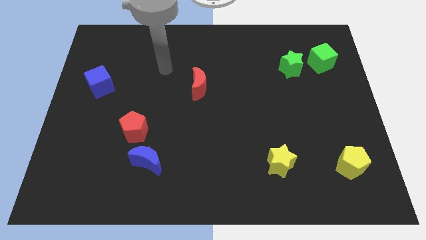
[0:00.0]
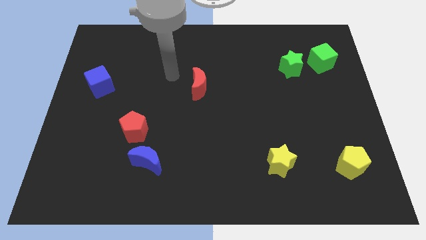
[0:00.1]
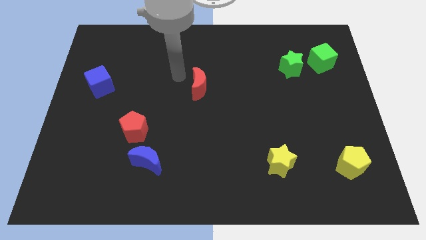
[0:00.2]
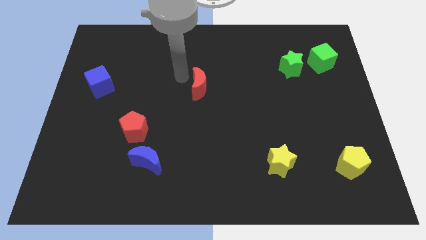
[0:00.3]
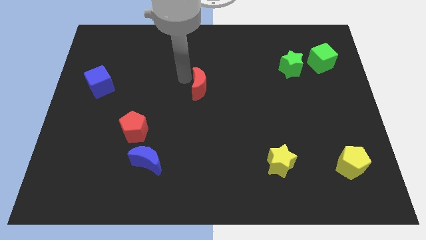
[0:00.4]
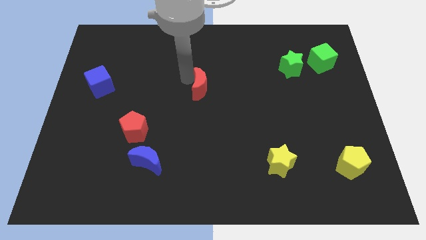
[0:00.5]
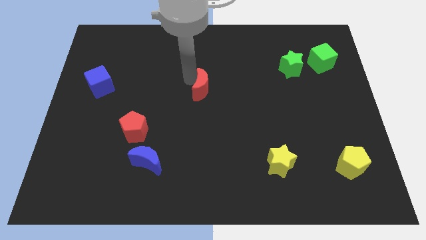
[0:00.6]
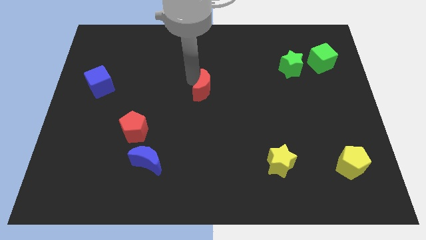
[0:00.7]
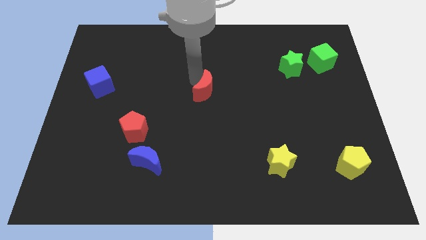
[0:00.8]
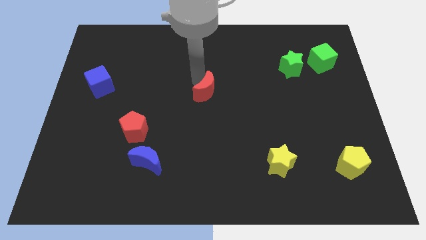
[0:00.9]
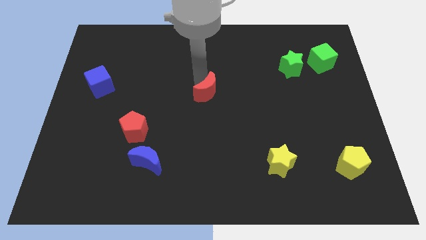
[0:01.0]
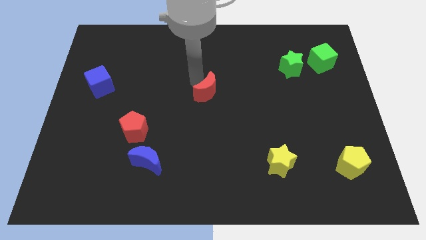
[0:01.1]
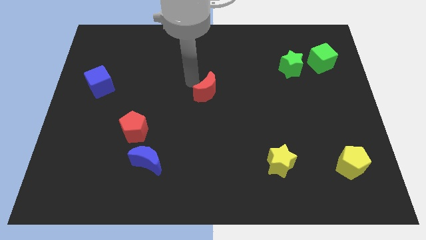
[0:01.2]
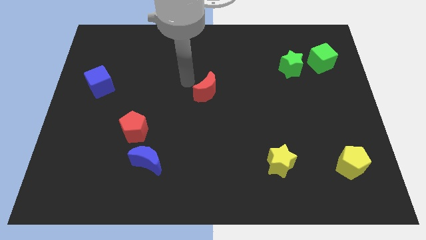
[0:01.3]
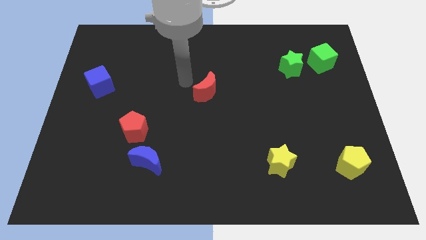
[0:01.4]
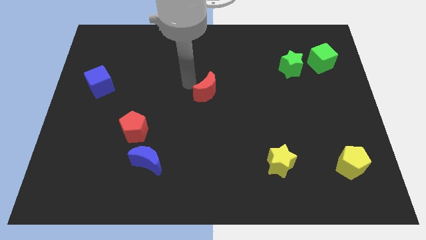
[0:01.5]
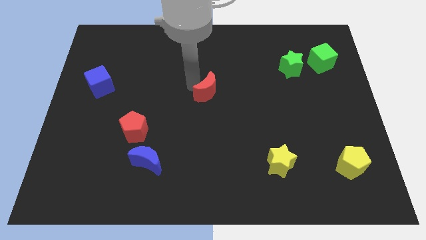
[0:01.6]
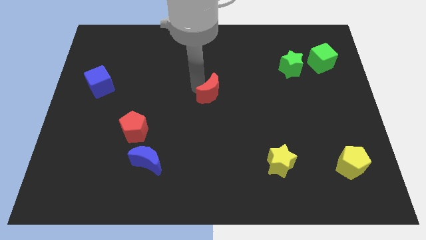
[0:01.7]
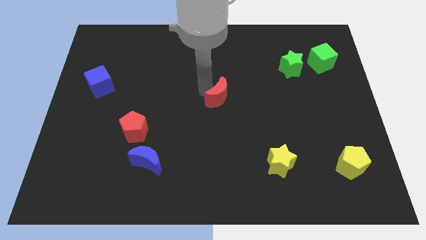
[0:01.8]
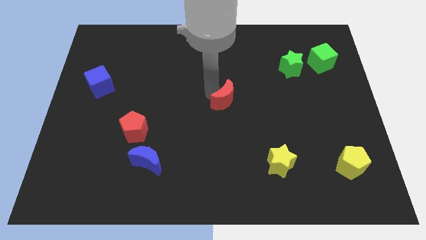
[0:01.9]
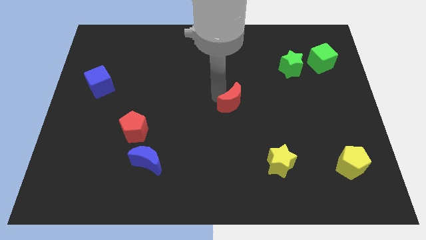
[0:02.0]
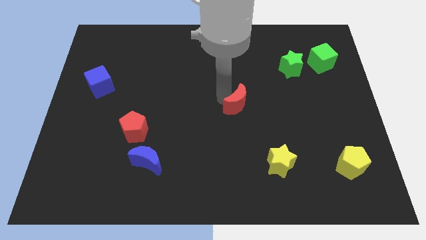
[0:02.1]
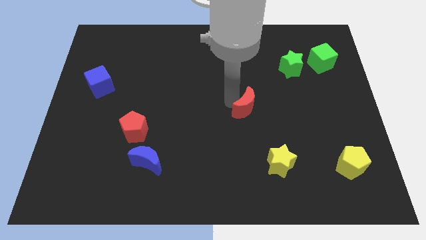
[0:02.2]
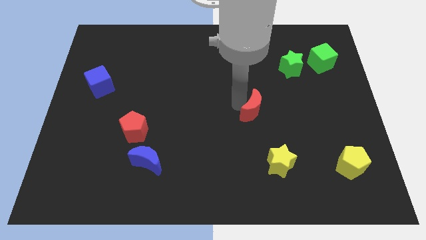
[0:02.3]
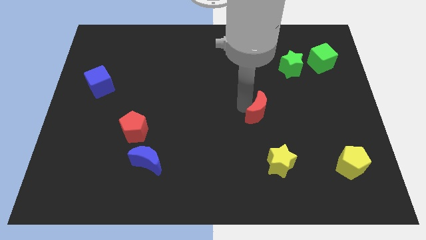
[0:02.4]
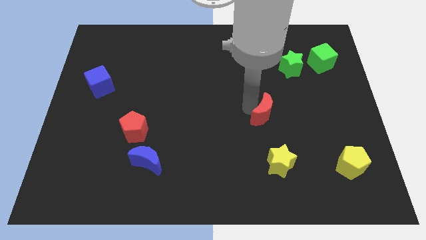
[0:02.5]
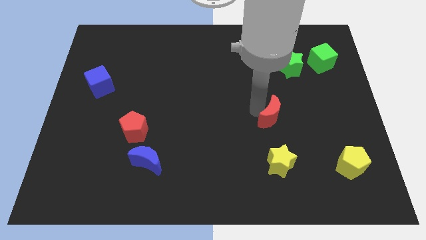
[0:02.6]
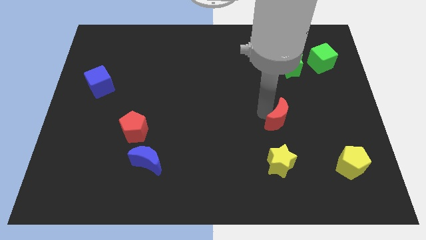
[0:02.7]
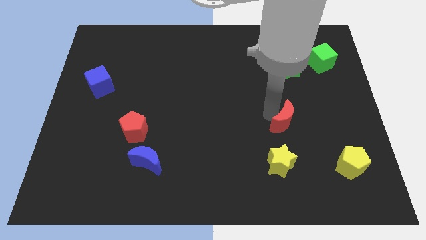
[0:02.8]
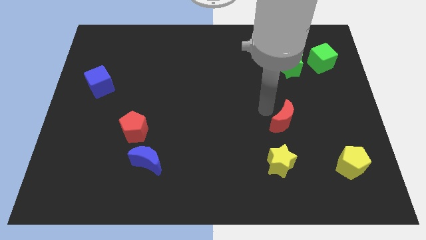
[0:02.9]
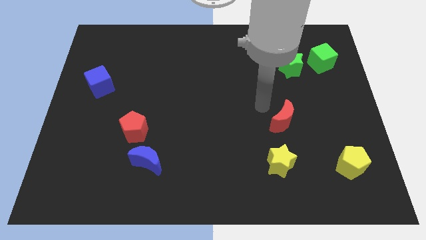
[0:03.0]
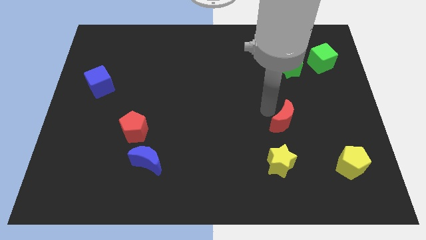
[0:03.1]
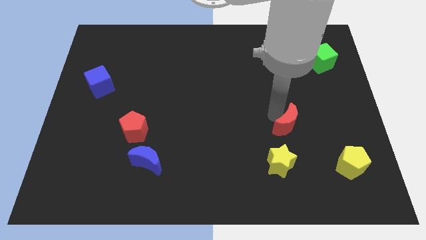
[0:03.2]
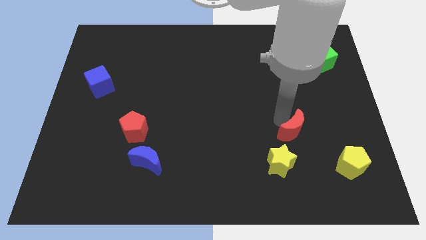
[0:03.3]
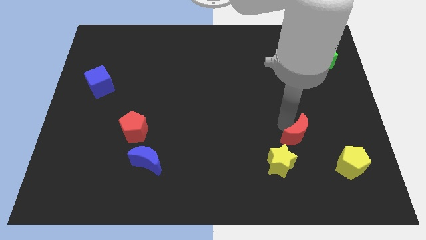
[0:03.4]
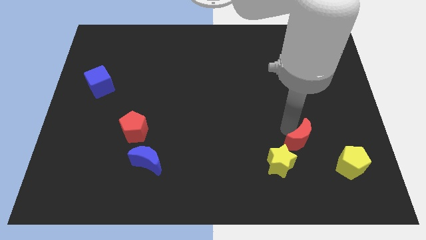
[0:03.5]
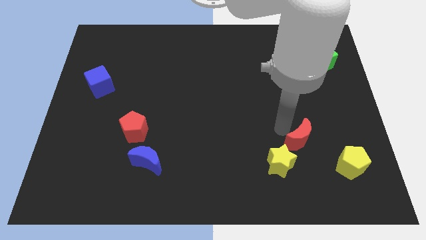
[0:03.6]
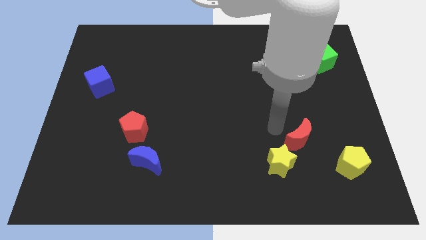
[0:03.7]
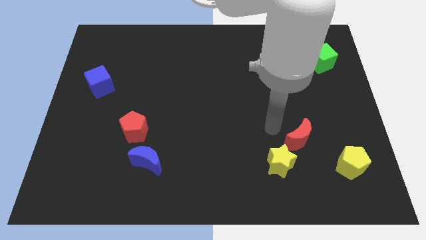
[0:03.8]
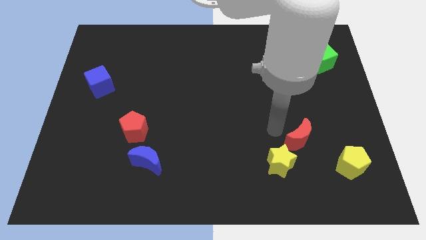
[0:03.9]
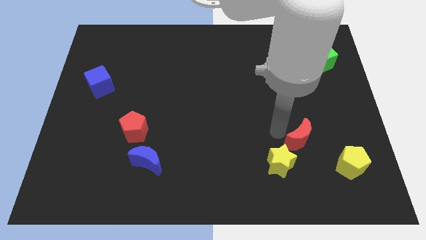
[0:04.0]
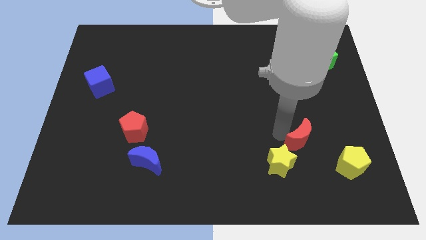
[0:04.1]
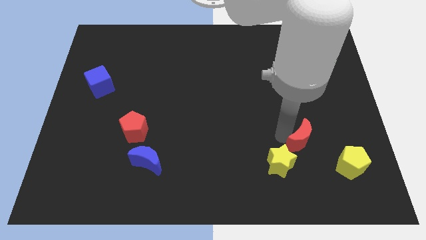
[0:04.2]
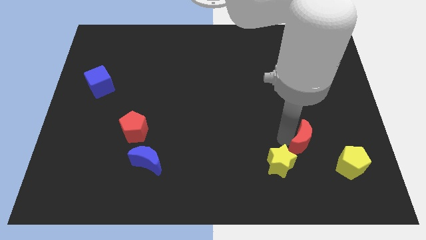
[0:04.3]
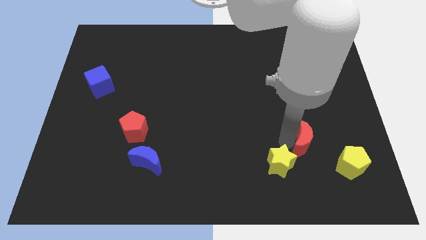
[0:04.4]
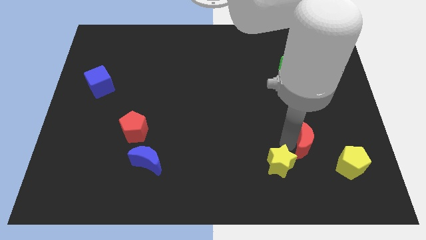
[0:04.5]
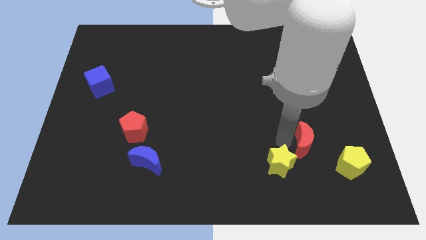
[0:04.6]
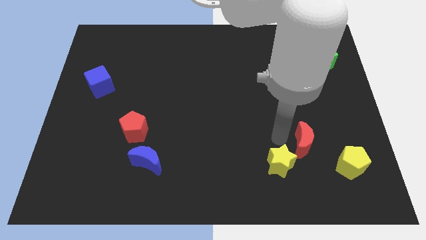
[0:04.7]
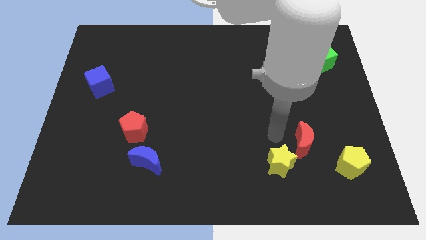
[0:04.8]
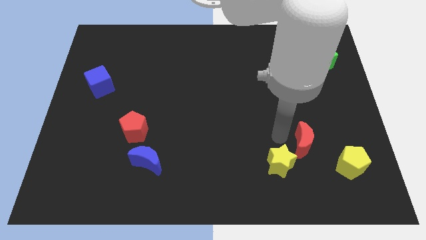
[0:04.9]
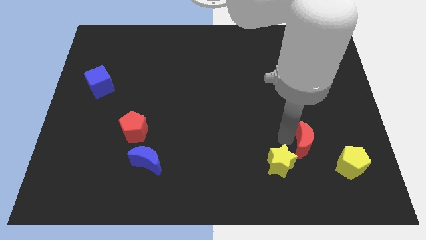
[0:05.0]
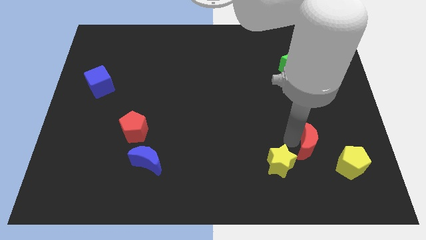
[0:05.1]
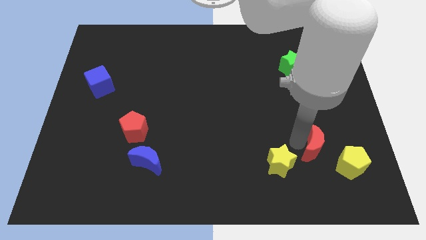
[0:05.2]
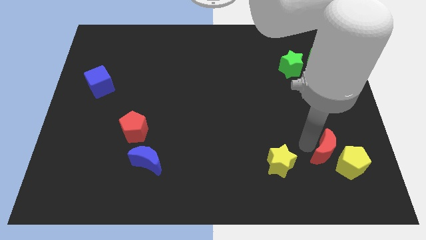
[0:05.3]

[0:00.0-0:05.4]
move the red moon to the yellow pentagon

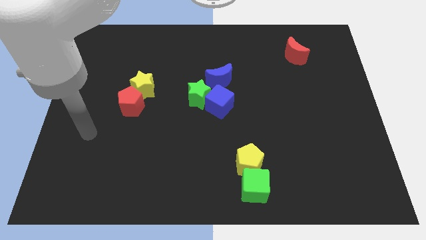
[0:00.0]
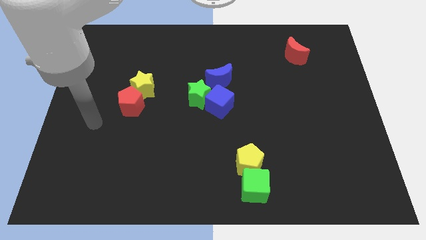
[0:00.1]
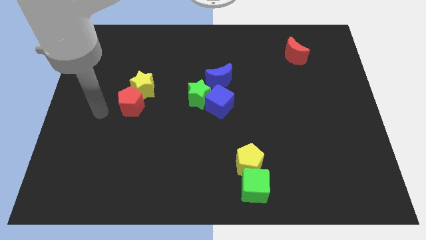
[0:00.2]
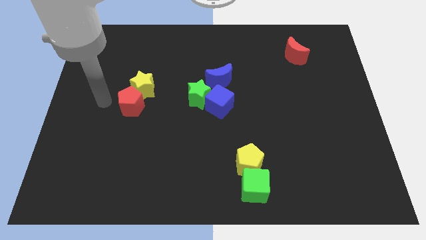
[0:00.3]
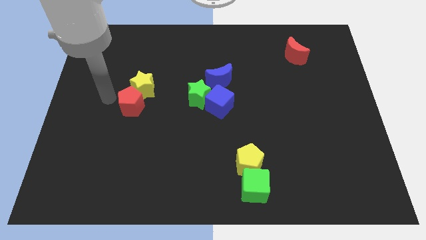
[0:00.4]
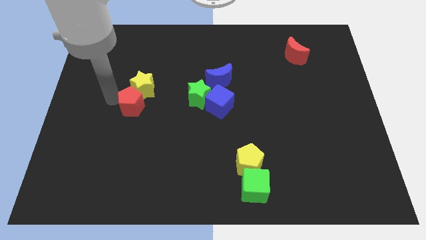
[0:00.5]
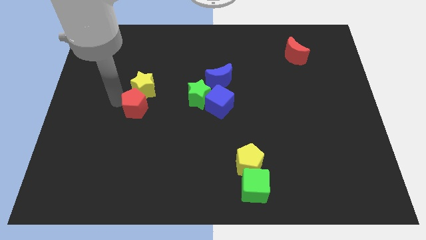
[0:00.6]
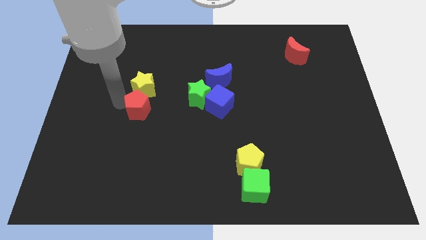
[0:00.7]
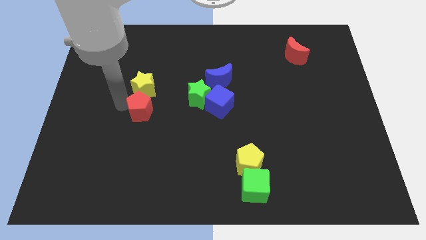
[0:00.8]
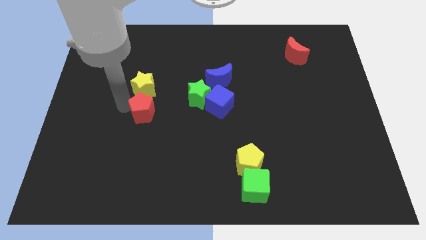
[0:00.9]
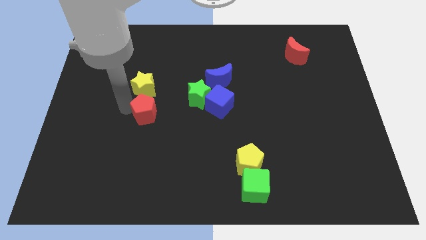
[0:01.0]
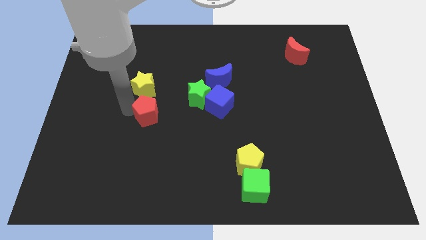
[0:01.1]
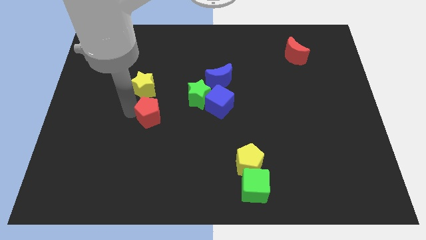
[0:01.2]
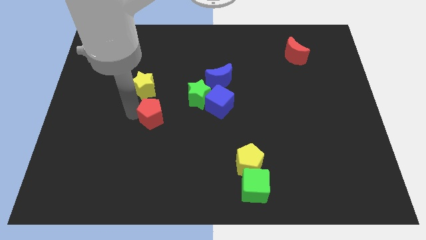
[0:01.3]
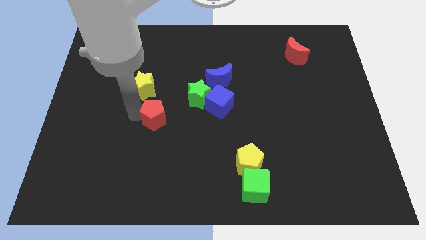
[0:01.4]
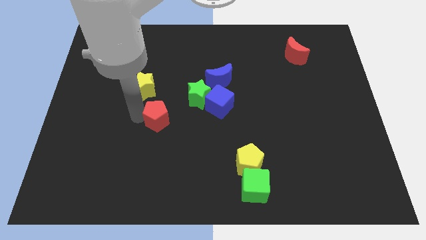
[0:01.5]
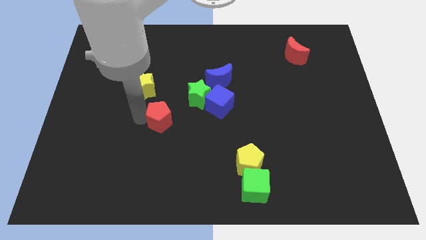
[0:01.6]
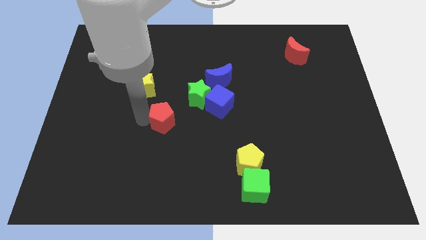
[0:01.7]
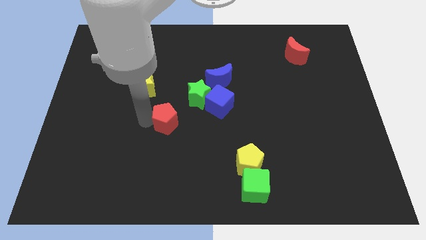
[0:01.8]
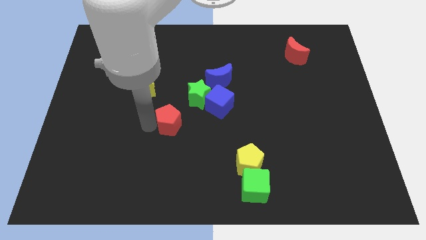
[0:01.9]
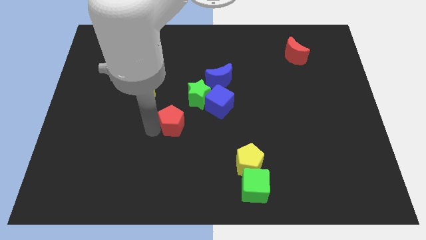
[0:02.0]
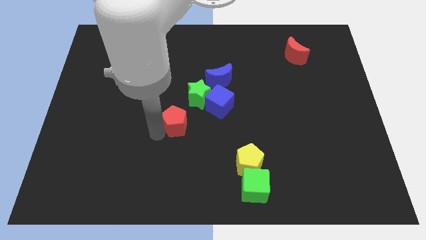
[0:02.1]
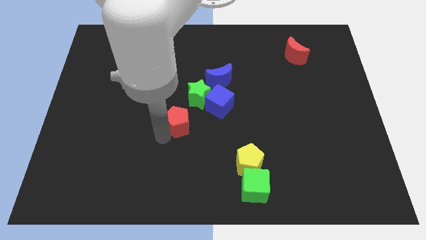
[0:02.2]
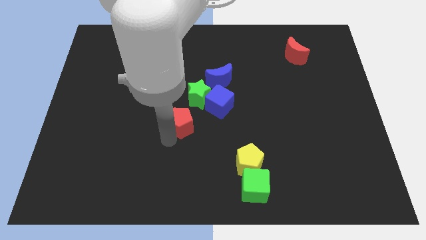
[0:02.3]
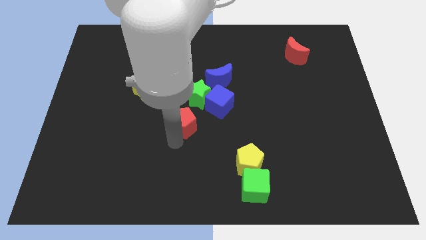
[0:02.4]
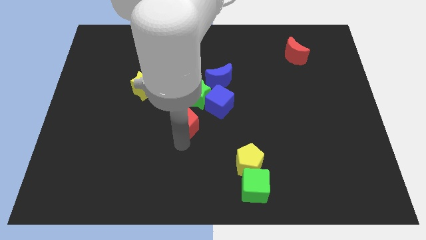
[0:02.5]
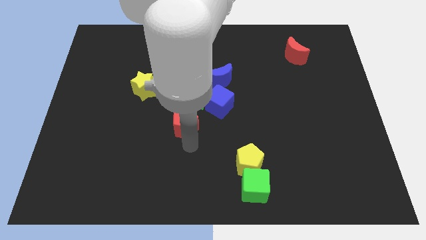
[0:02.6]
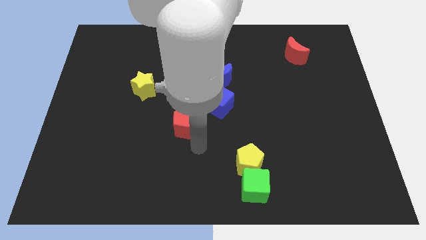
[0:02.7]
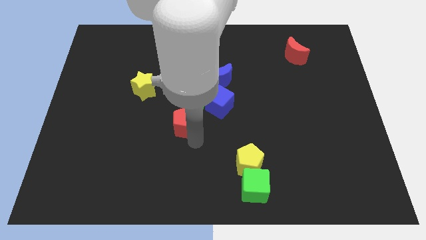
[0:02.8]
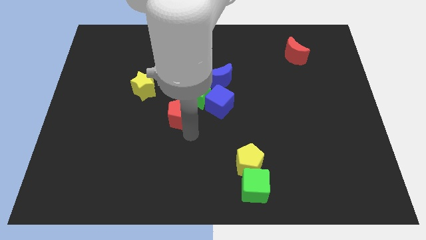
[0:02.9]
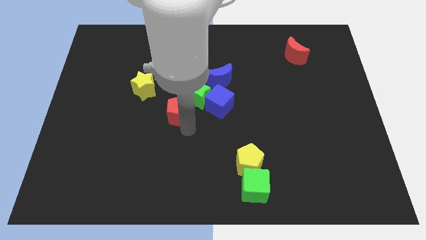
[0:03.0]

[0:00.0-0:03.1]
push the red pentagon to the green star
